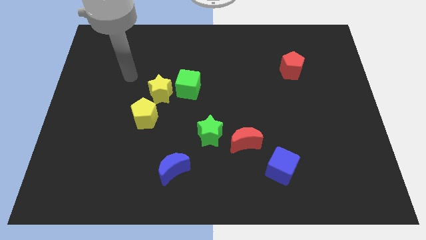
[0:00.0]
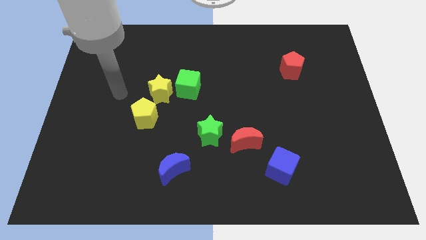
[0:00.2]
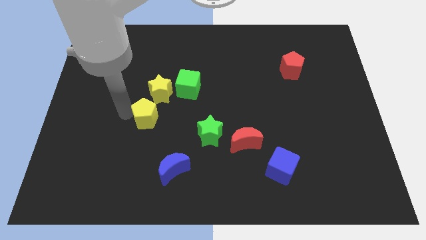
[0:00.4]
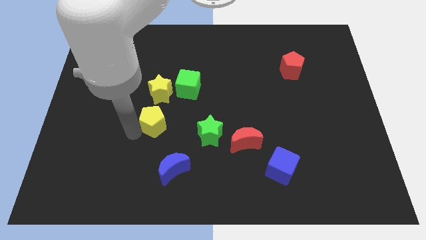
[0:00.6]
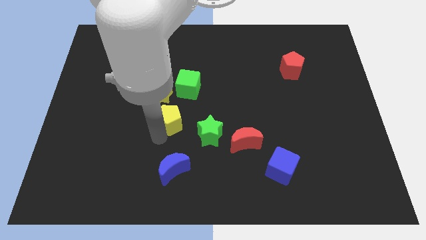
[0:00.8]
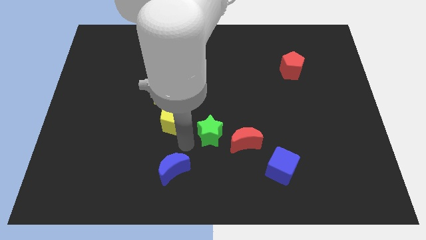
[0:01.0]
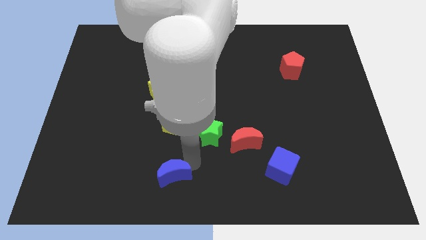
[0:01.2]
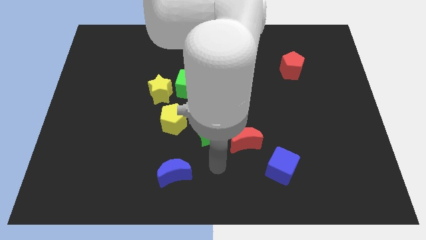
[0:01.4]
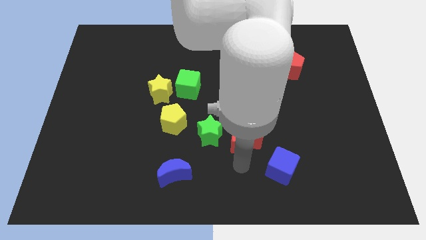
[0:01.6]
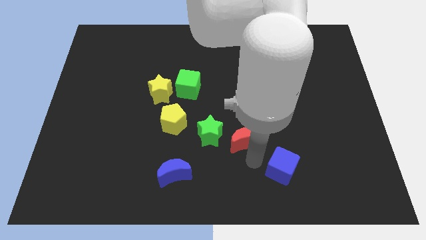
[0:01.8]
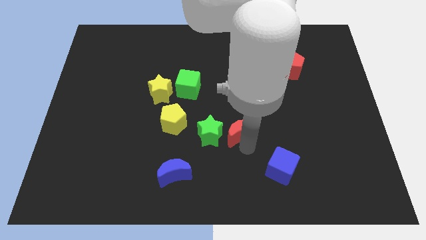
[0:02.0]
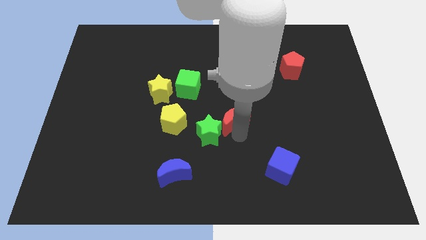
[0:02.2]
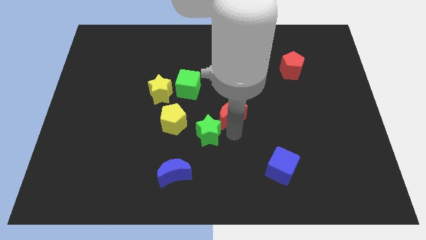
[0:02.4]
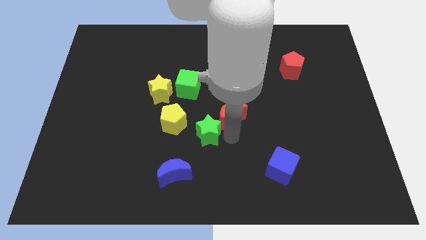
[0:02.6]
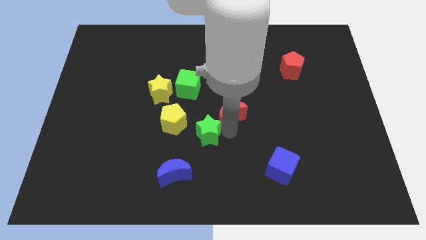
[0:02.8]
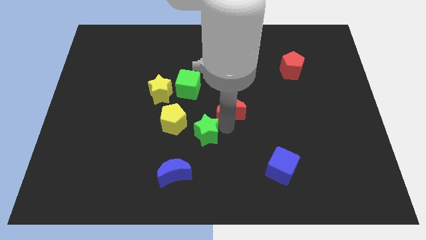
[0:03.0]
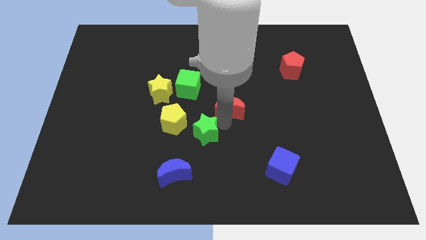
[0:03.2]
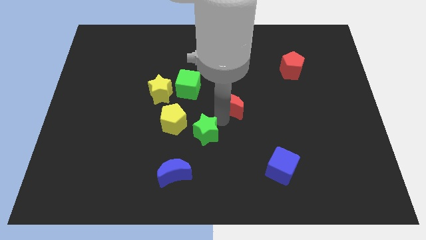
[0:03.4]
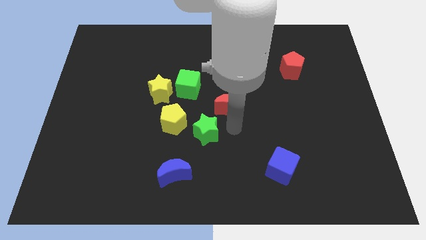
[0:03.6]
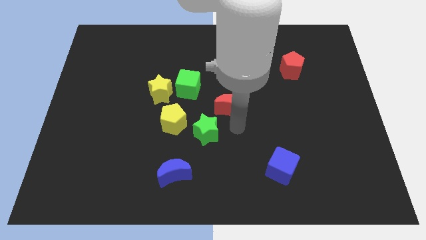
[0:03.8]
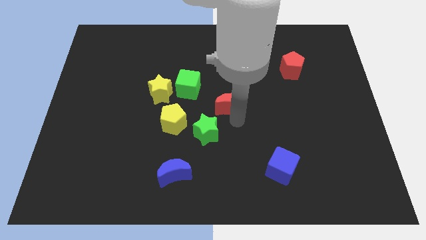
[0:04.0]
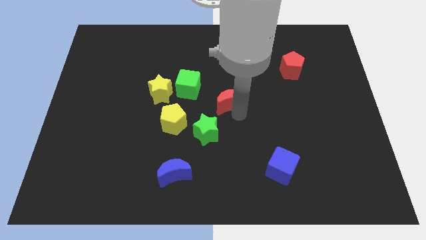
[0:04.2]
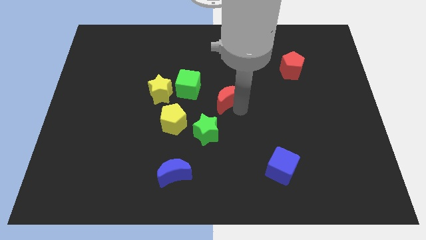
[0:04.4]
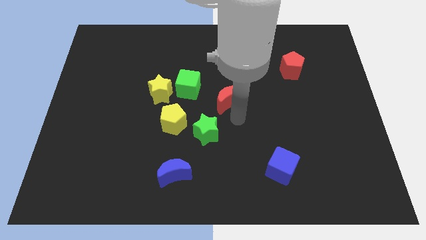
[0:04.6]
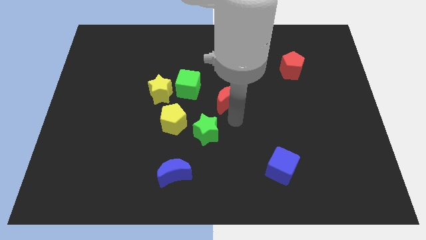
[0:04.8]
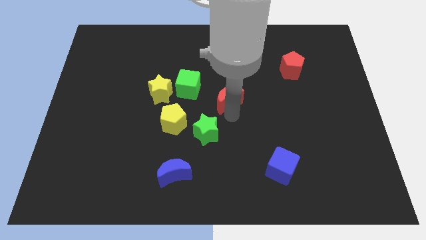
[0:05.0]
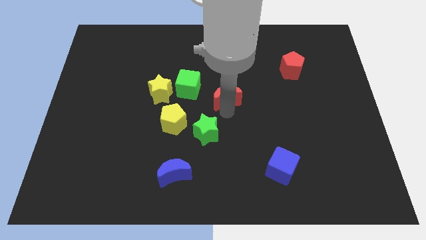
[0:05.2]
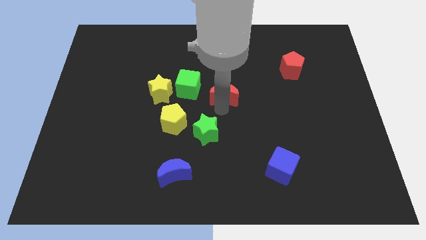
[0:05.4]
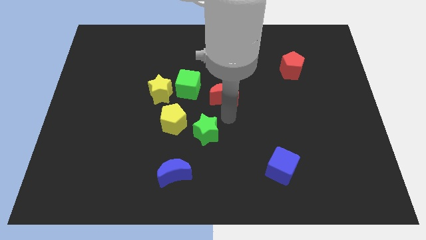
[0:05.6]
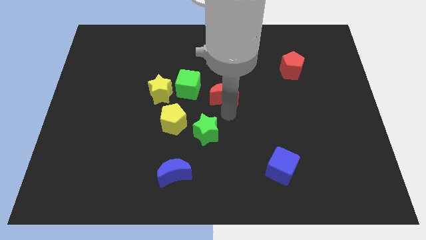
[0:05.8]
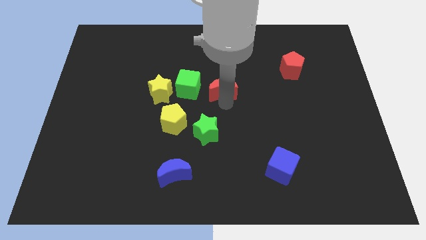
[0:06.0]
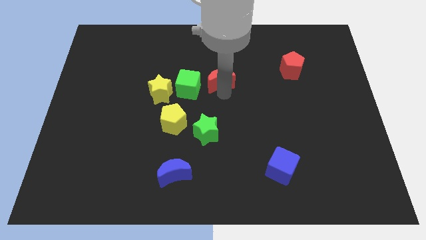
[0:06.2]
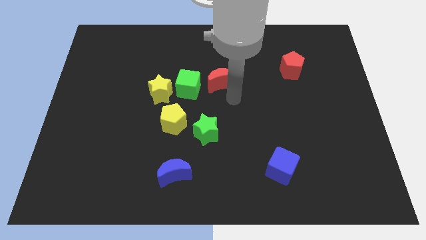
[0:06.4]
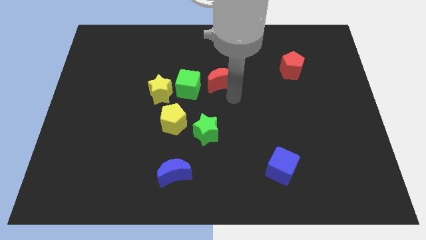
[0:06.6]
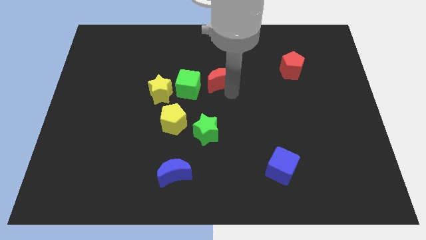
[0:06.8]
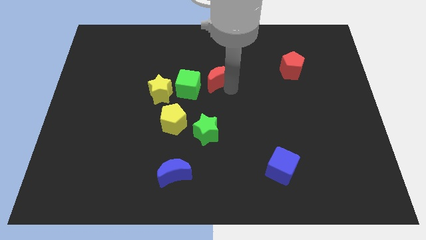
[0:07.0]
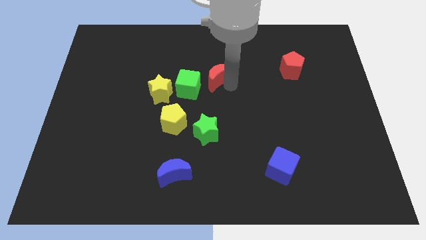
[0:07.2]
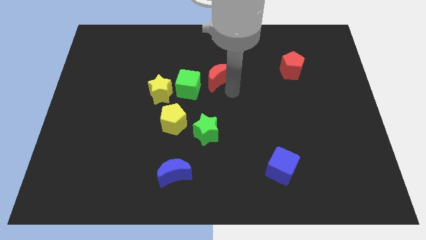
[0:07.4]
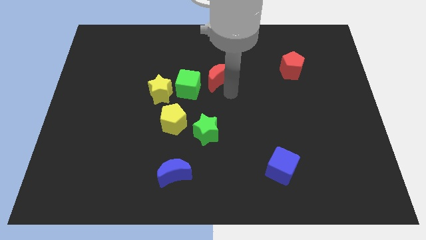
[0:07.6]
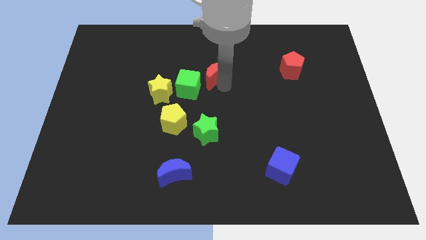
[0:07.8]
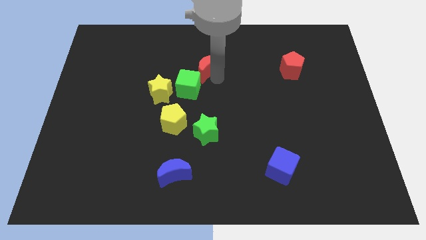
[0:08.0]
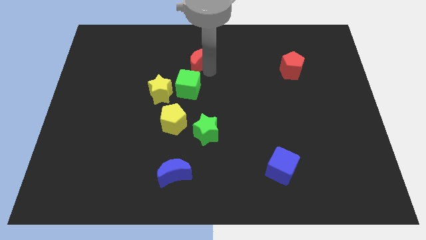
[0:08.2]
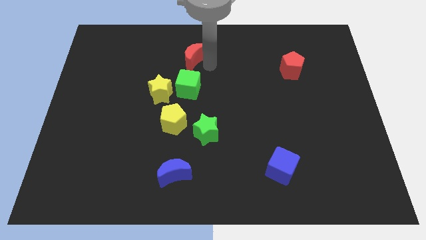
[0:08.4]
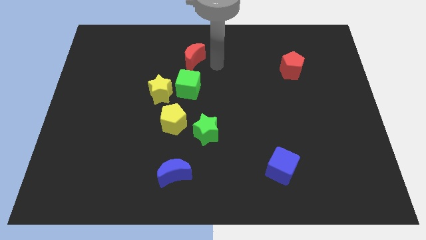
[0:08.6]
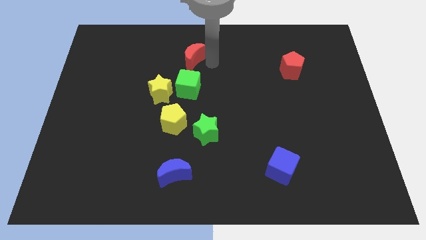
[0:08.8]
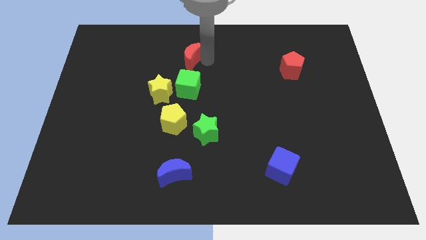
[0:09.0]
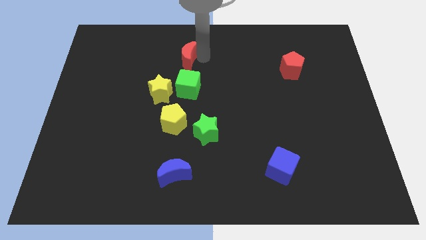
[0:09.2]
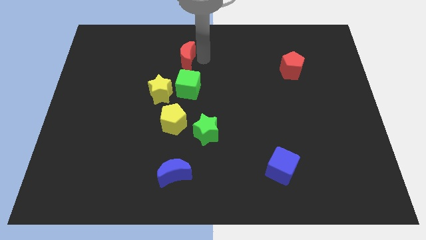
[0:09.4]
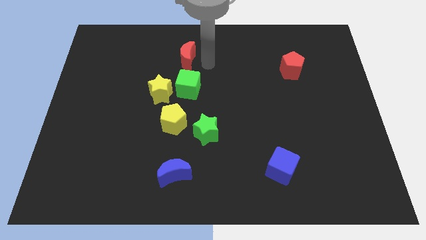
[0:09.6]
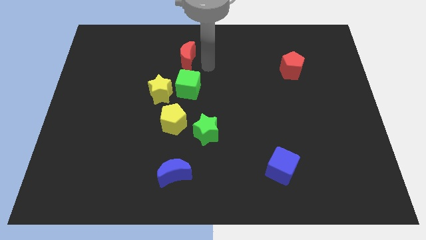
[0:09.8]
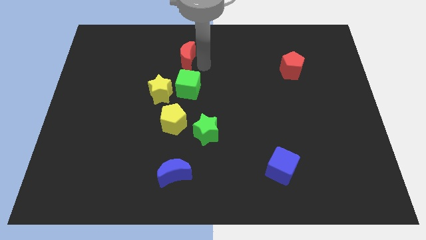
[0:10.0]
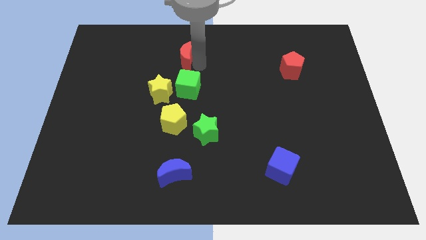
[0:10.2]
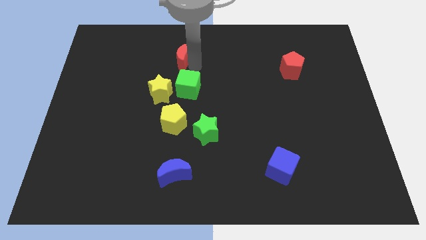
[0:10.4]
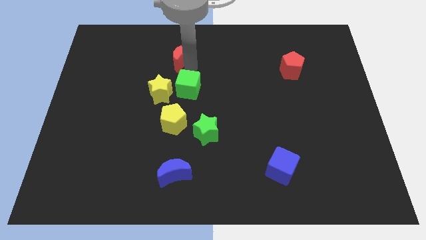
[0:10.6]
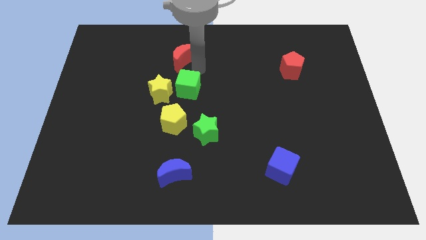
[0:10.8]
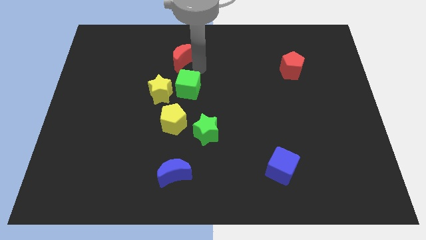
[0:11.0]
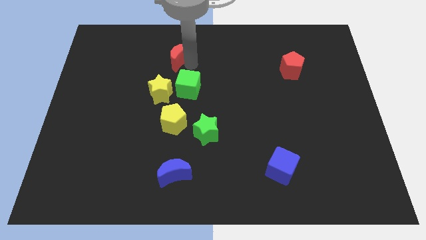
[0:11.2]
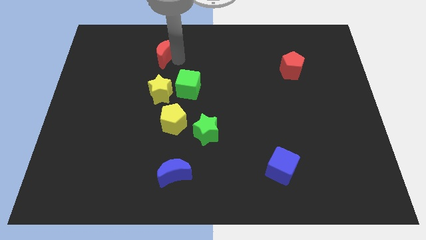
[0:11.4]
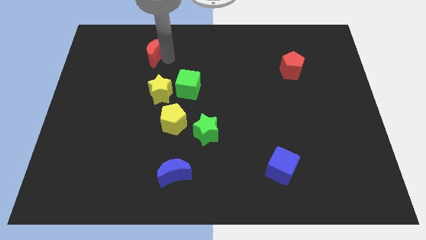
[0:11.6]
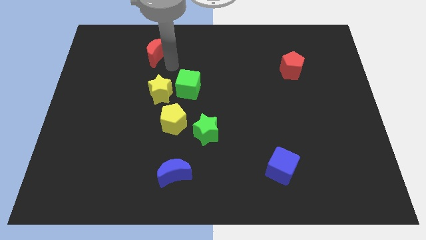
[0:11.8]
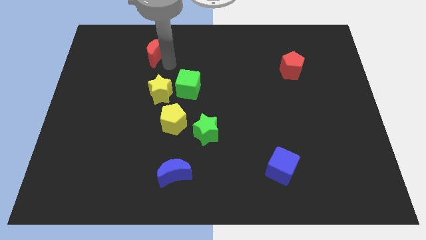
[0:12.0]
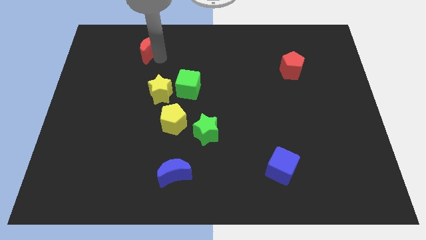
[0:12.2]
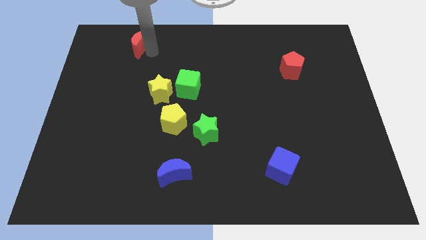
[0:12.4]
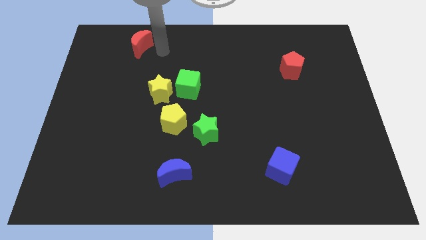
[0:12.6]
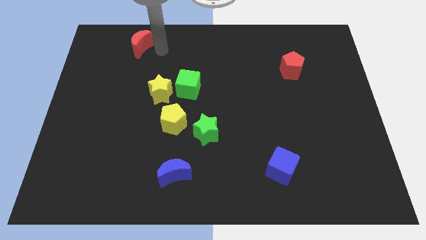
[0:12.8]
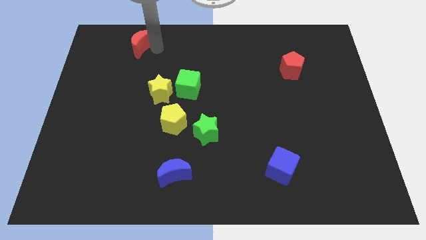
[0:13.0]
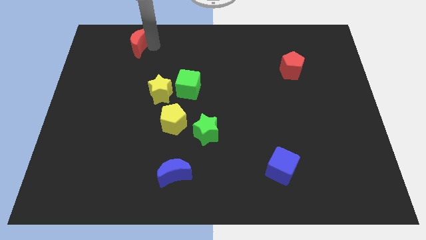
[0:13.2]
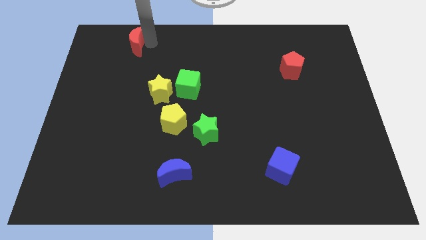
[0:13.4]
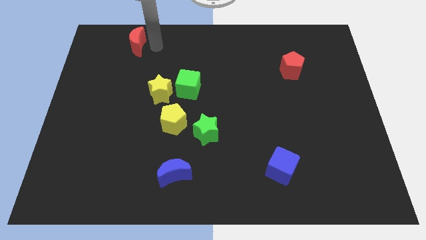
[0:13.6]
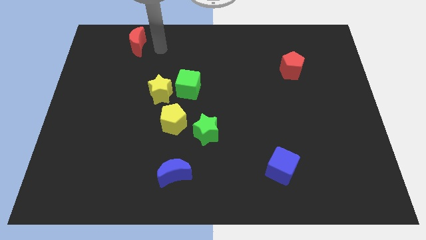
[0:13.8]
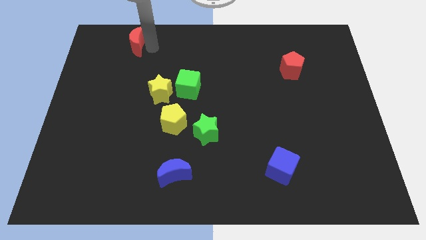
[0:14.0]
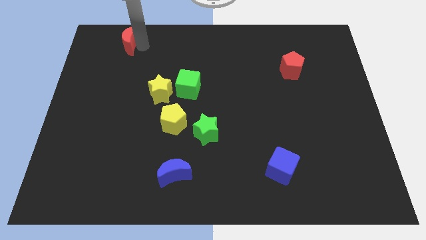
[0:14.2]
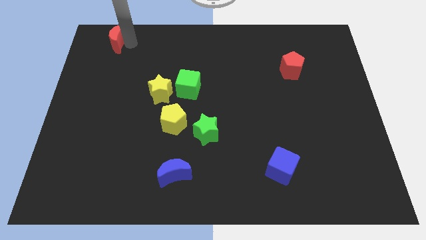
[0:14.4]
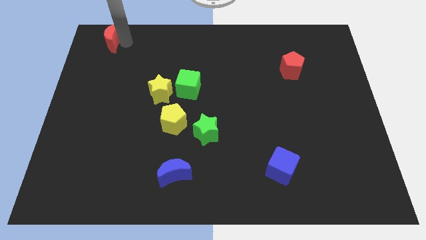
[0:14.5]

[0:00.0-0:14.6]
slide the red moon to the top left of the board
